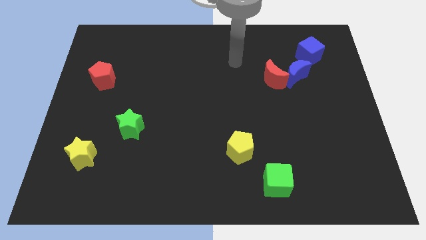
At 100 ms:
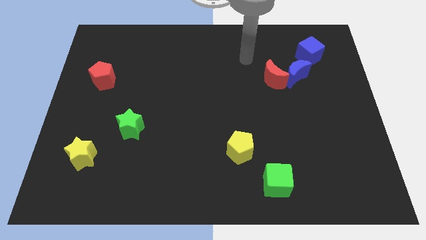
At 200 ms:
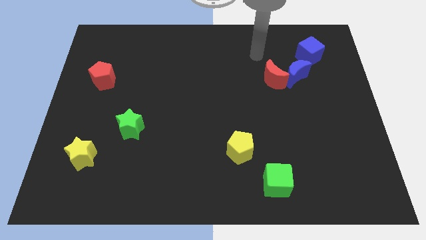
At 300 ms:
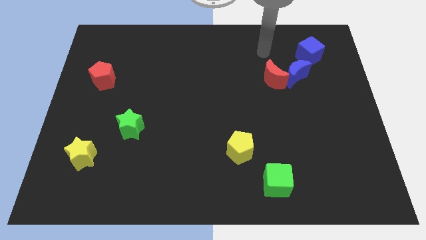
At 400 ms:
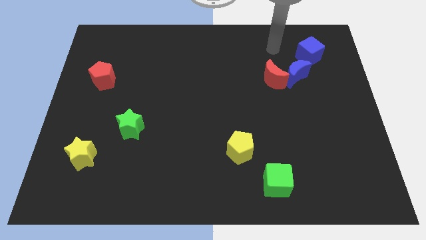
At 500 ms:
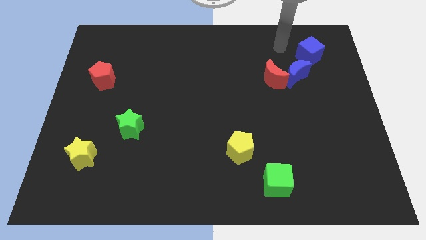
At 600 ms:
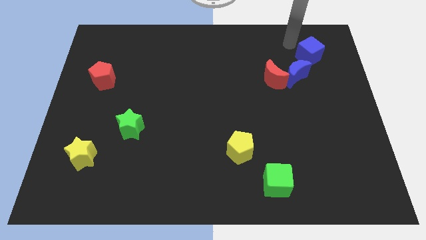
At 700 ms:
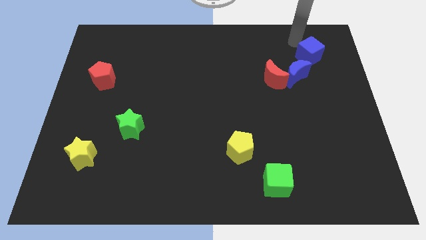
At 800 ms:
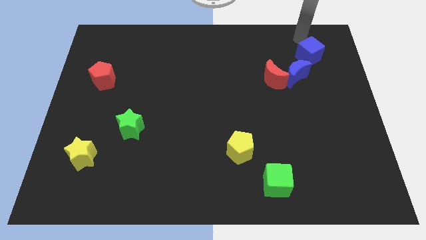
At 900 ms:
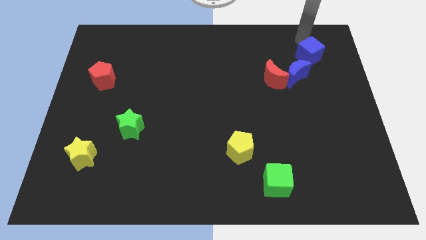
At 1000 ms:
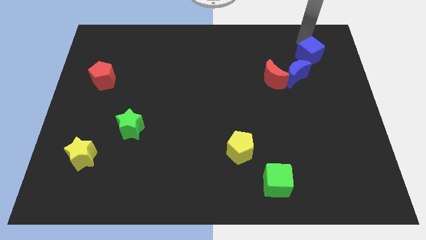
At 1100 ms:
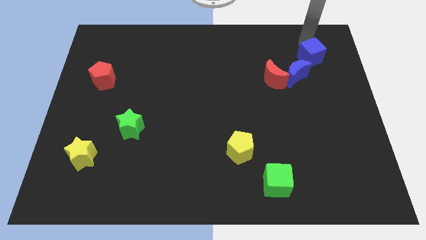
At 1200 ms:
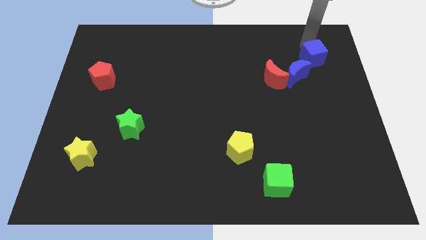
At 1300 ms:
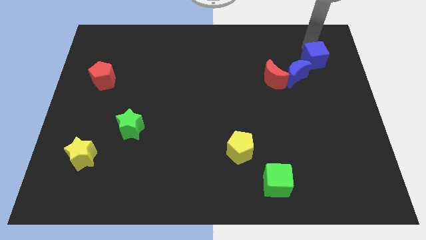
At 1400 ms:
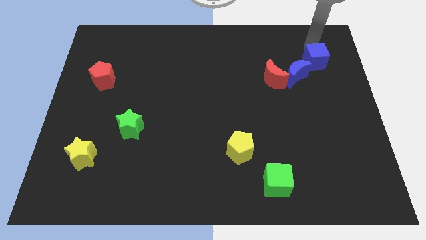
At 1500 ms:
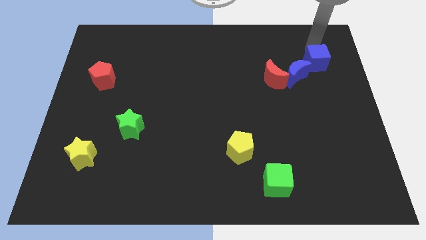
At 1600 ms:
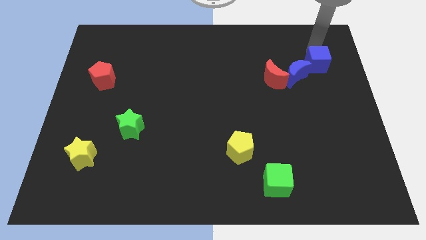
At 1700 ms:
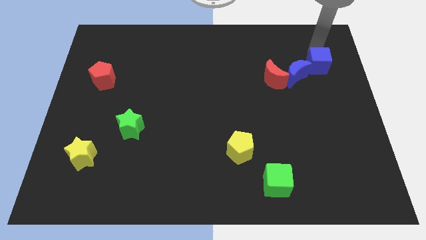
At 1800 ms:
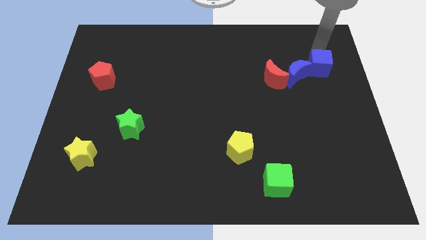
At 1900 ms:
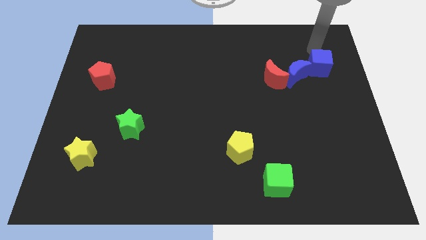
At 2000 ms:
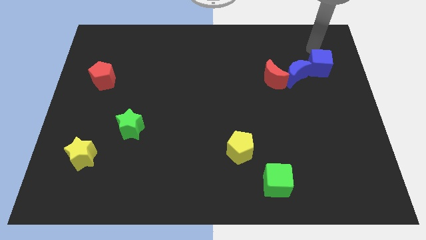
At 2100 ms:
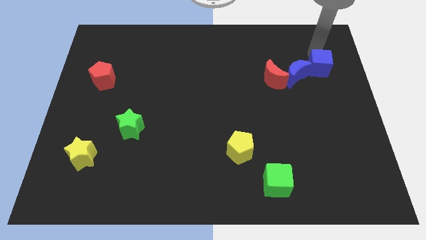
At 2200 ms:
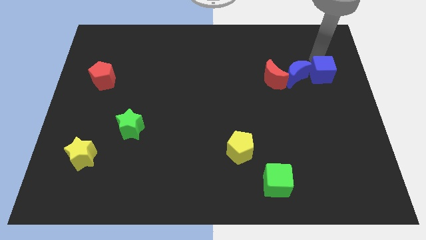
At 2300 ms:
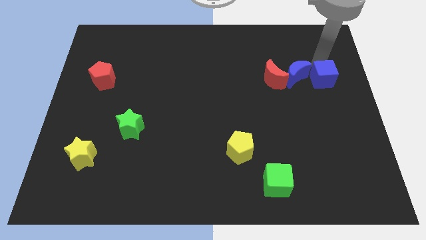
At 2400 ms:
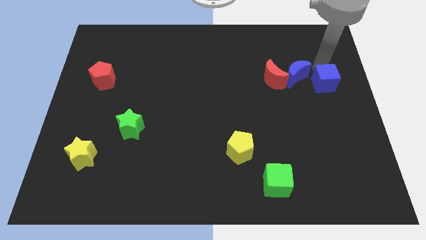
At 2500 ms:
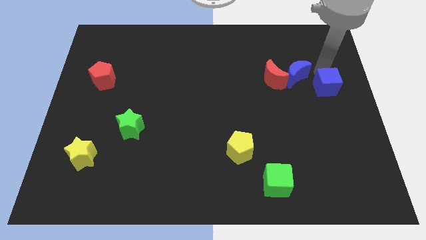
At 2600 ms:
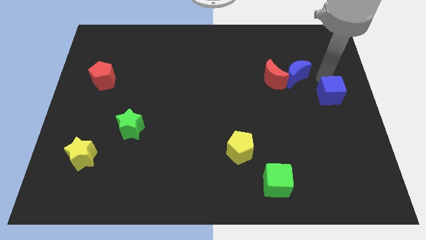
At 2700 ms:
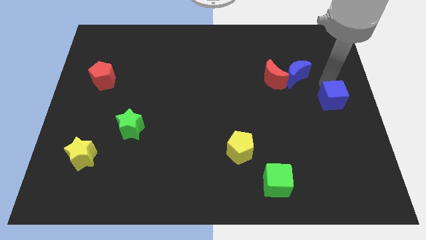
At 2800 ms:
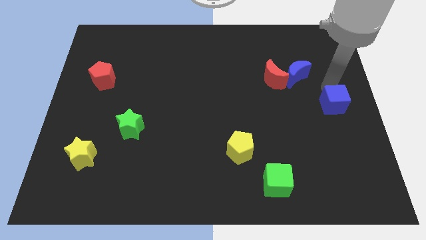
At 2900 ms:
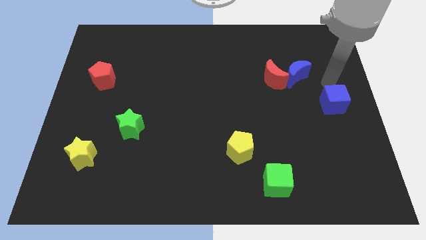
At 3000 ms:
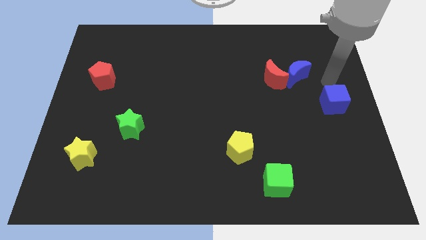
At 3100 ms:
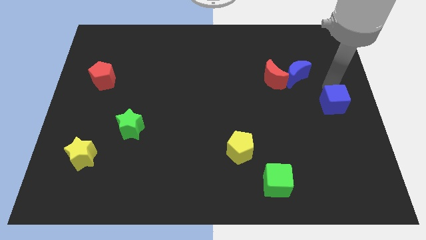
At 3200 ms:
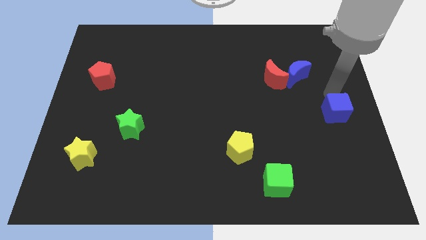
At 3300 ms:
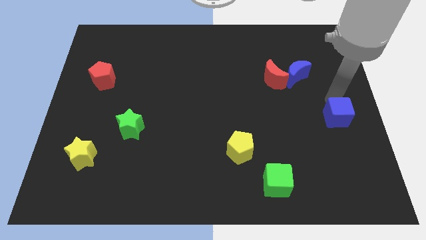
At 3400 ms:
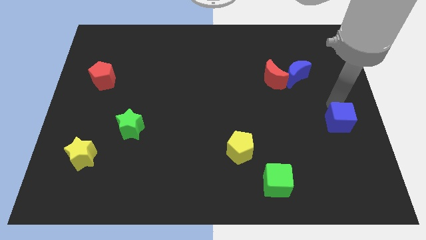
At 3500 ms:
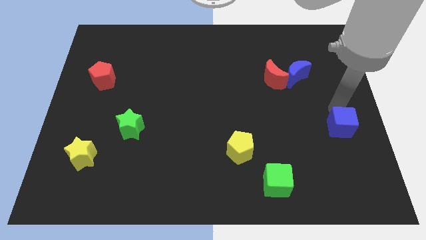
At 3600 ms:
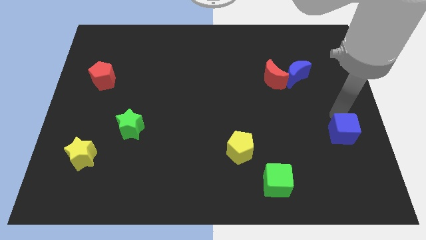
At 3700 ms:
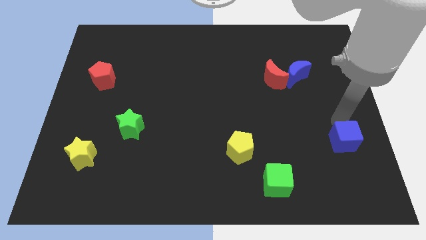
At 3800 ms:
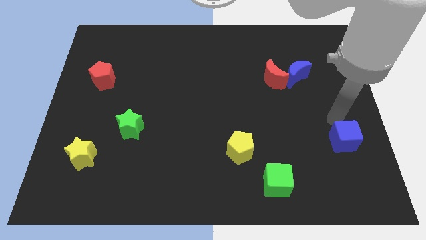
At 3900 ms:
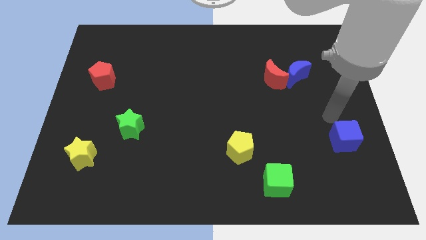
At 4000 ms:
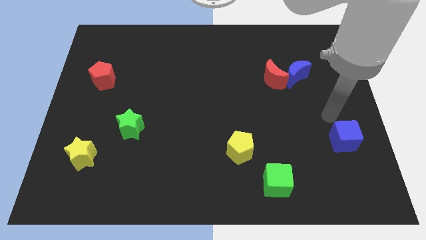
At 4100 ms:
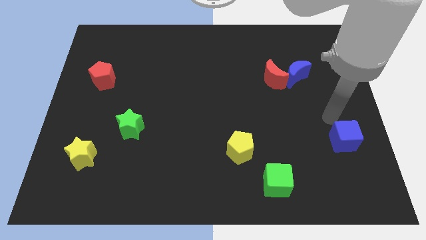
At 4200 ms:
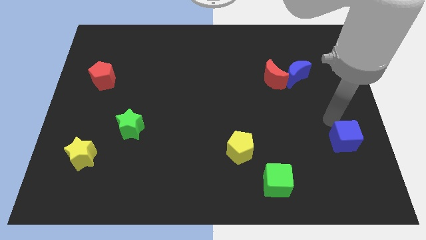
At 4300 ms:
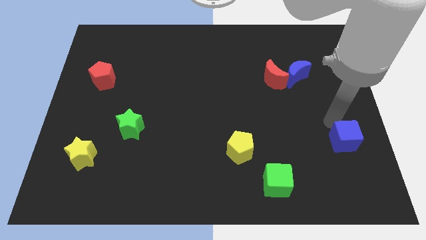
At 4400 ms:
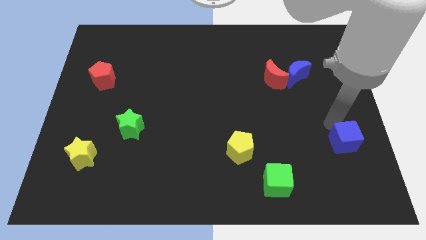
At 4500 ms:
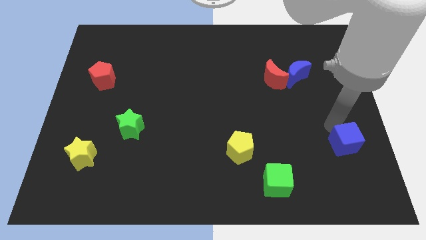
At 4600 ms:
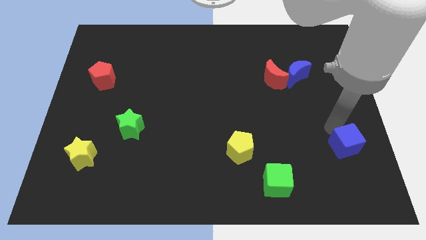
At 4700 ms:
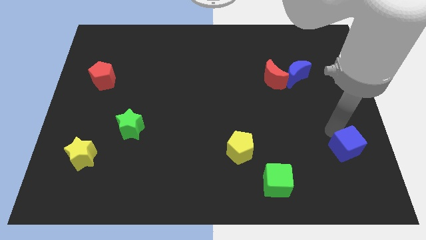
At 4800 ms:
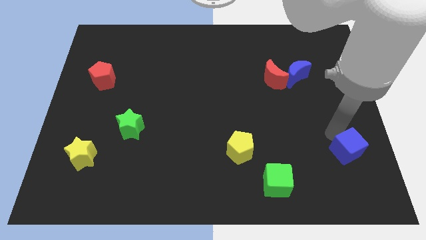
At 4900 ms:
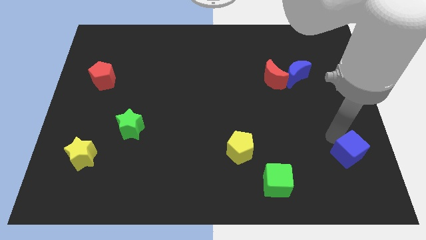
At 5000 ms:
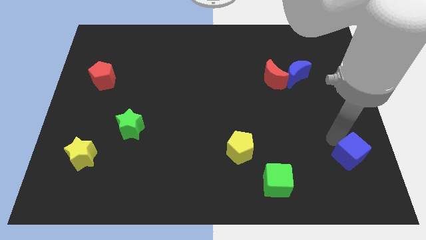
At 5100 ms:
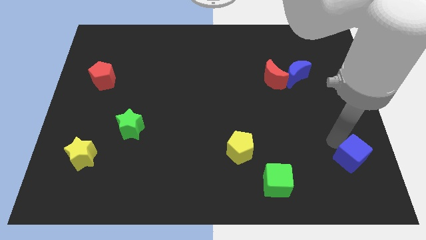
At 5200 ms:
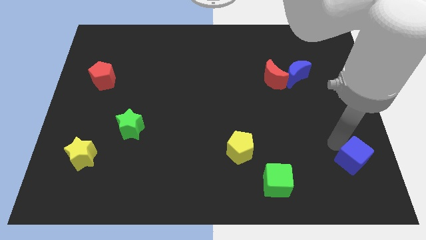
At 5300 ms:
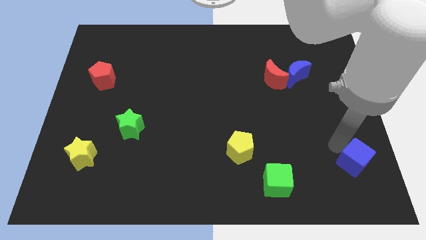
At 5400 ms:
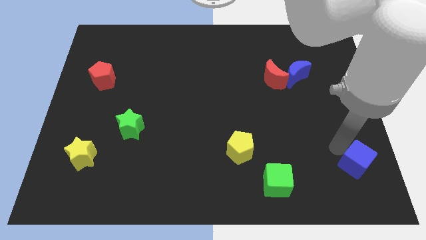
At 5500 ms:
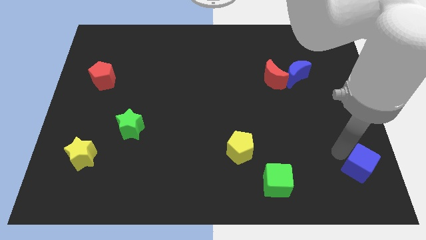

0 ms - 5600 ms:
push the blue cube to the bottom right of the board

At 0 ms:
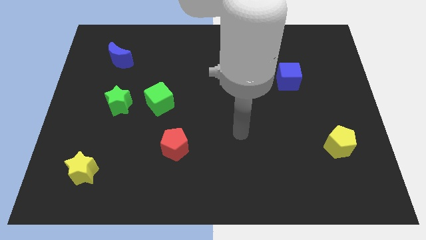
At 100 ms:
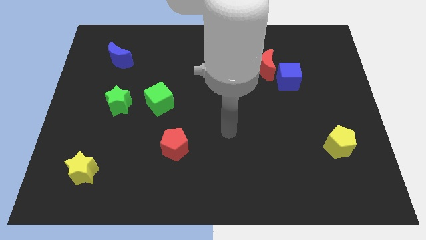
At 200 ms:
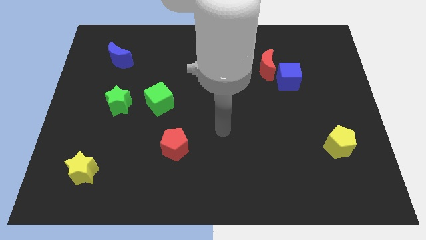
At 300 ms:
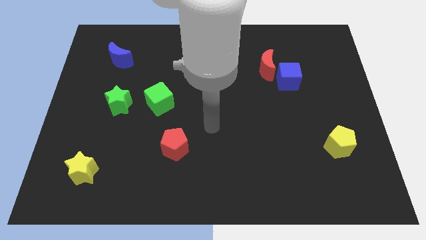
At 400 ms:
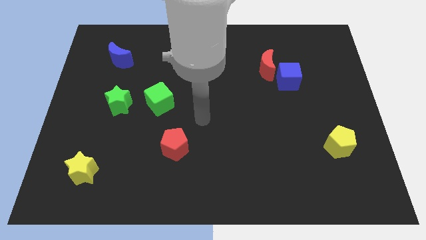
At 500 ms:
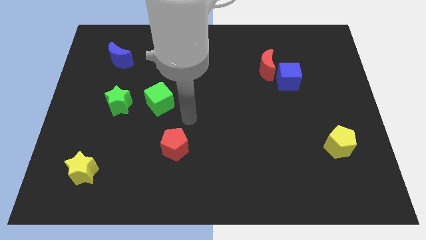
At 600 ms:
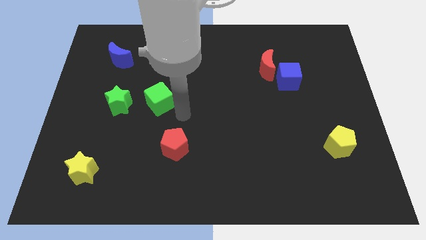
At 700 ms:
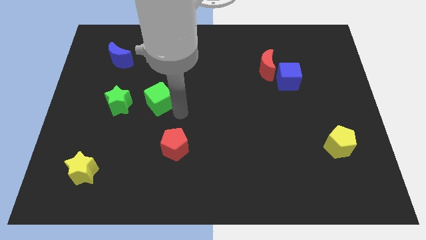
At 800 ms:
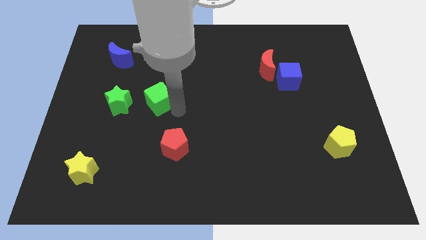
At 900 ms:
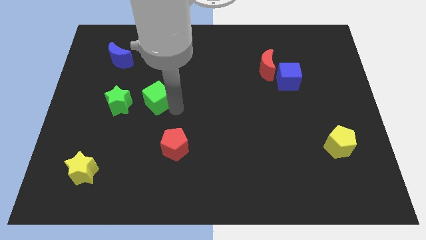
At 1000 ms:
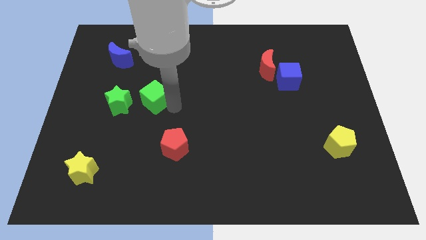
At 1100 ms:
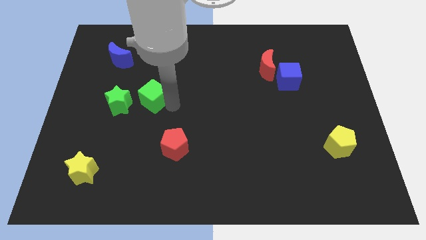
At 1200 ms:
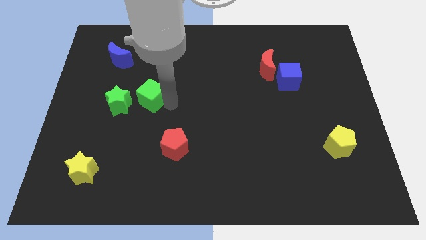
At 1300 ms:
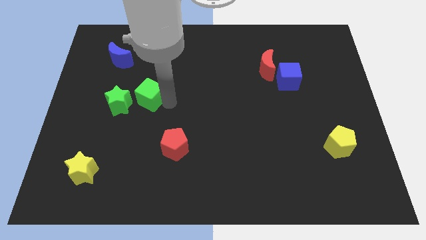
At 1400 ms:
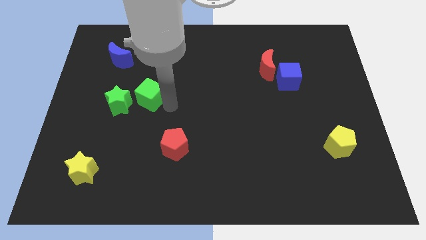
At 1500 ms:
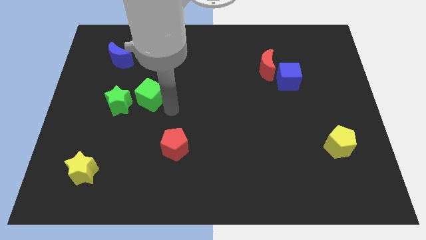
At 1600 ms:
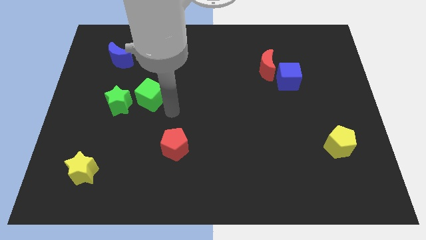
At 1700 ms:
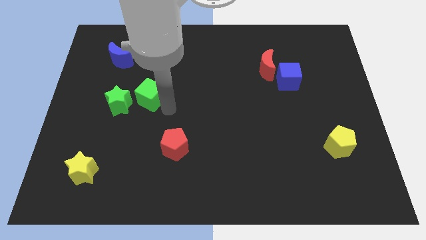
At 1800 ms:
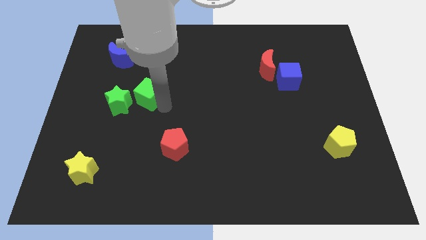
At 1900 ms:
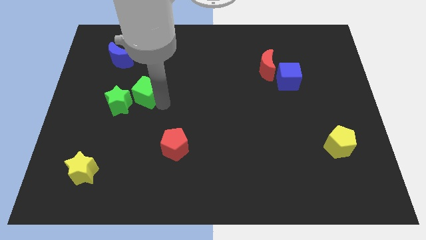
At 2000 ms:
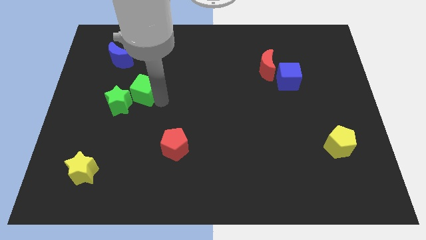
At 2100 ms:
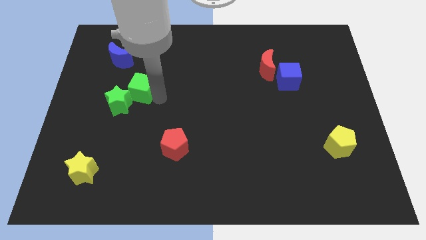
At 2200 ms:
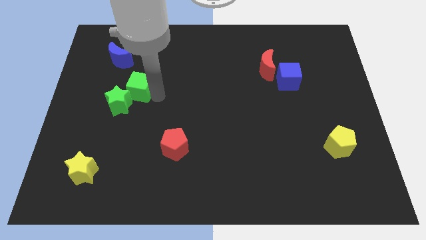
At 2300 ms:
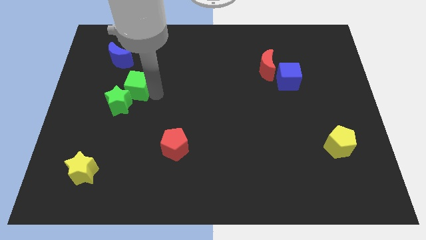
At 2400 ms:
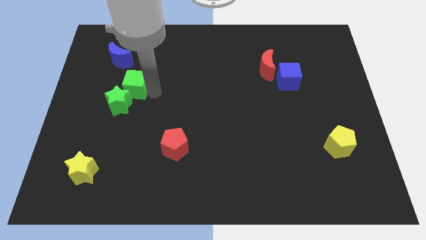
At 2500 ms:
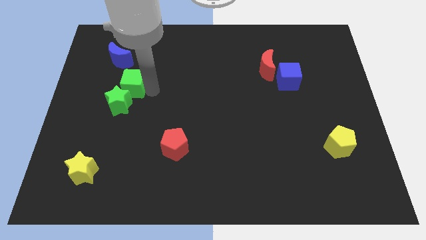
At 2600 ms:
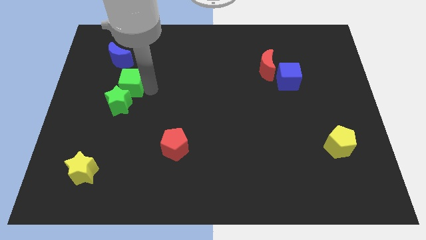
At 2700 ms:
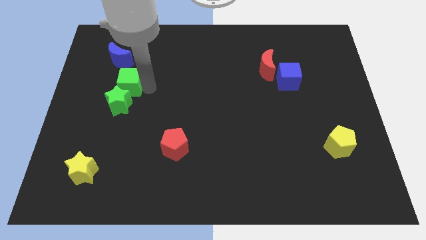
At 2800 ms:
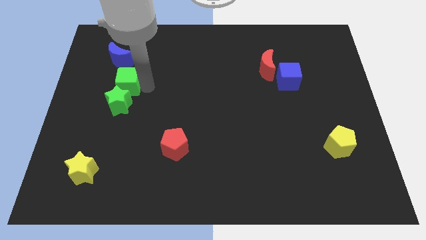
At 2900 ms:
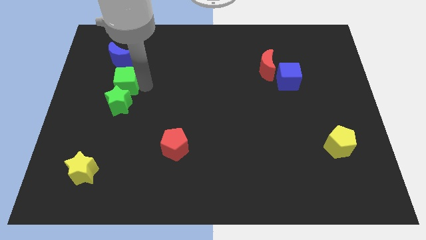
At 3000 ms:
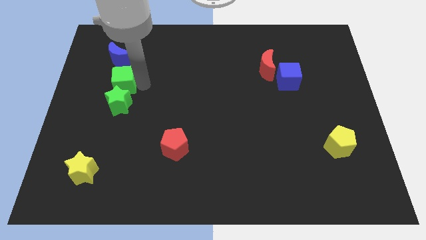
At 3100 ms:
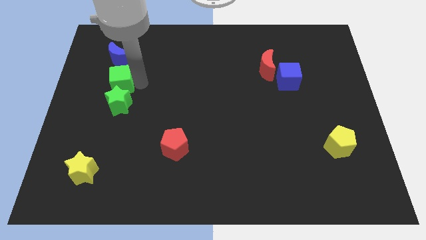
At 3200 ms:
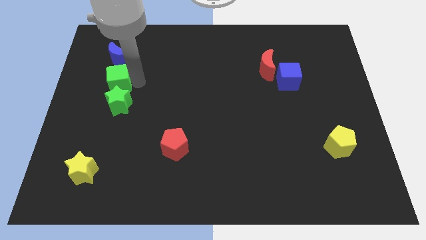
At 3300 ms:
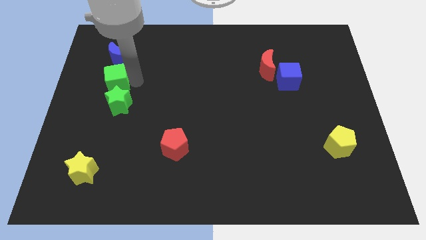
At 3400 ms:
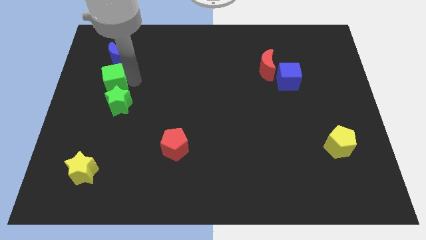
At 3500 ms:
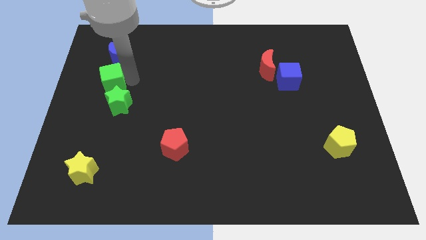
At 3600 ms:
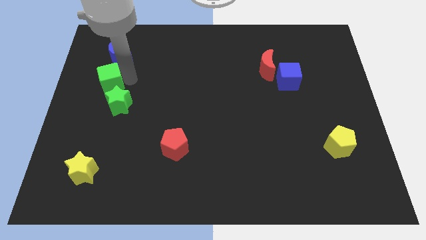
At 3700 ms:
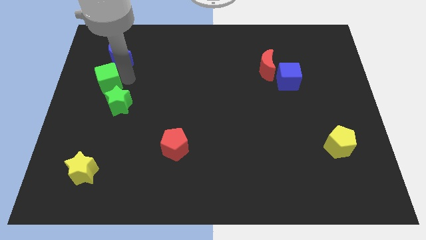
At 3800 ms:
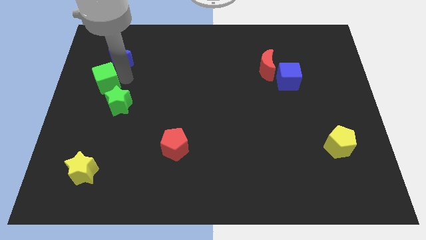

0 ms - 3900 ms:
move the green cube to the left side of the board
